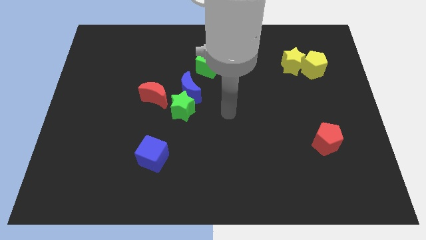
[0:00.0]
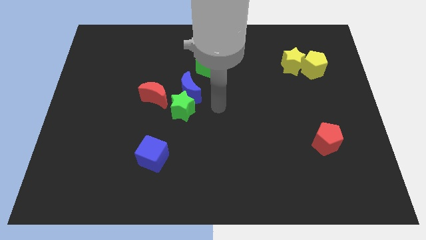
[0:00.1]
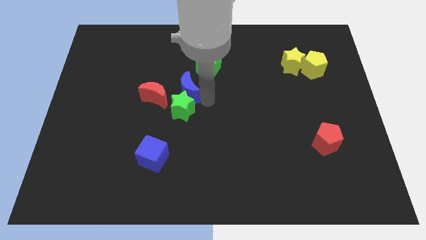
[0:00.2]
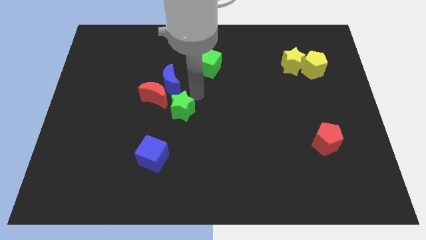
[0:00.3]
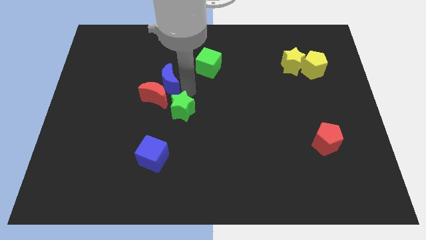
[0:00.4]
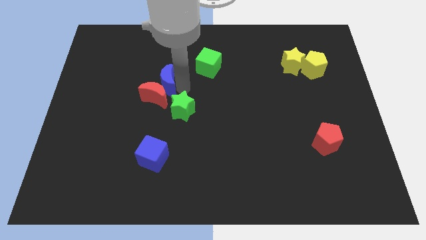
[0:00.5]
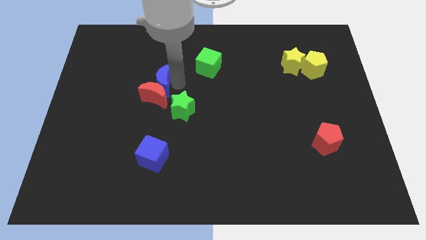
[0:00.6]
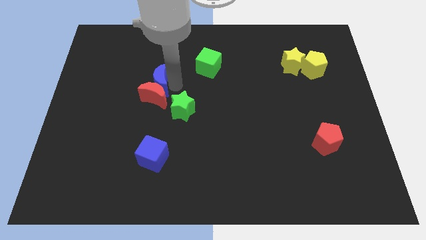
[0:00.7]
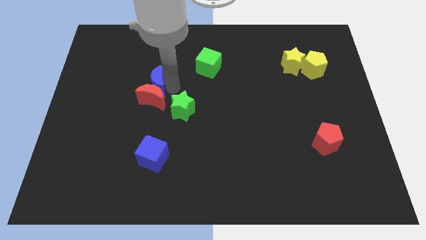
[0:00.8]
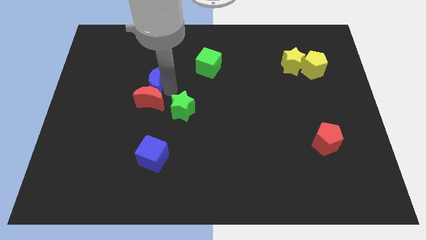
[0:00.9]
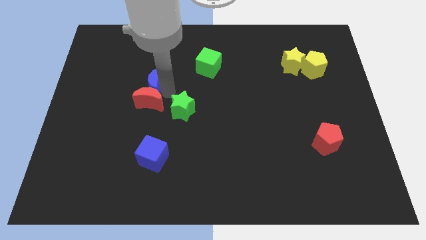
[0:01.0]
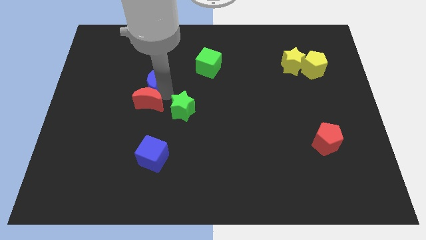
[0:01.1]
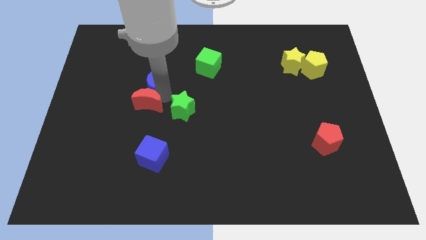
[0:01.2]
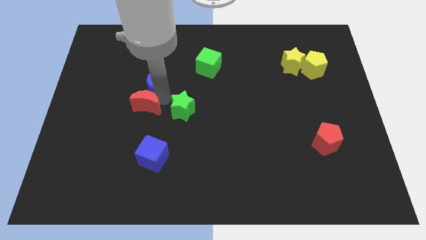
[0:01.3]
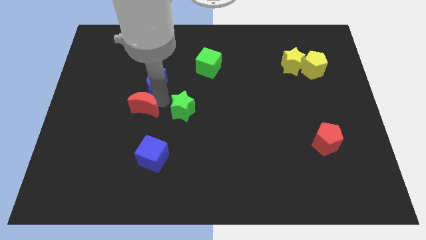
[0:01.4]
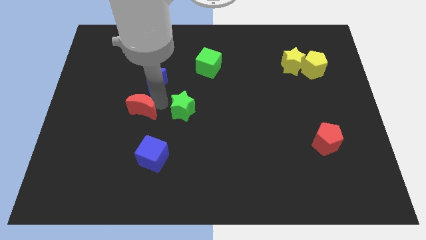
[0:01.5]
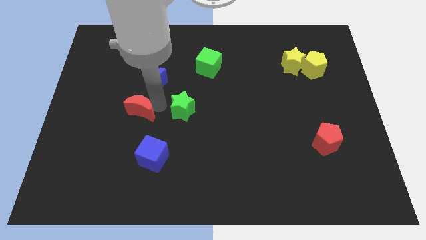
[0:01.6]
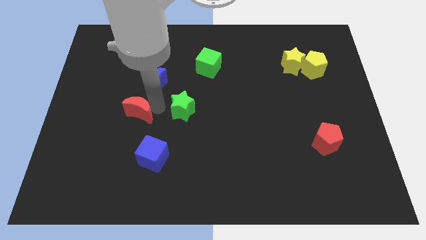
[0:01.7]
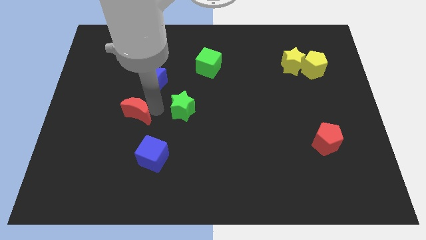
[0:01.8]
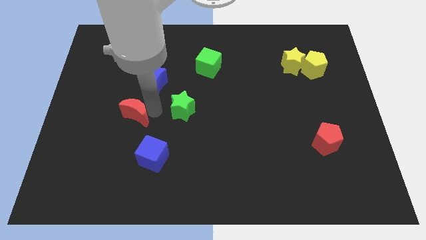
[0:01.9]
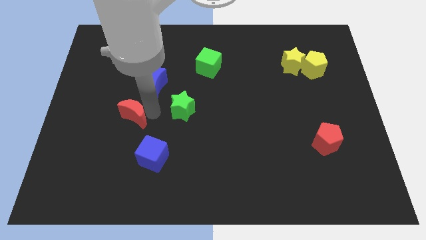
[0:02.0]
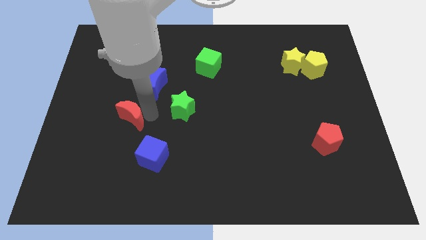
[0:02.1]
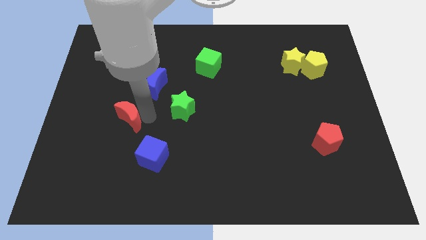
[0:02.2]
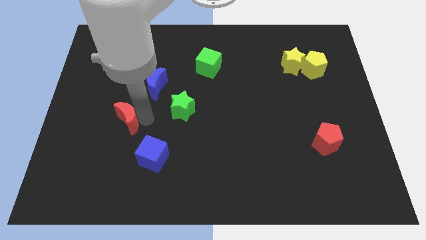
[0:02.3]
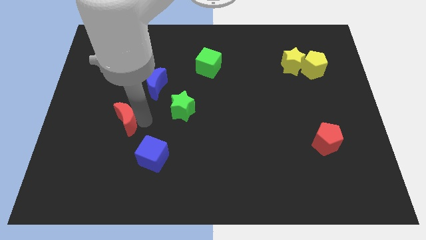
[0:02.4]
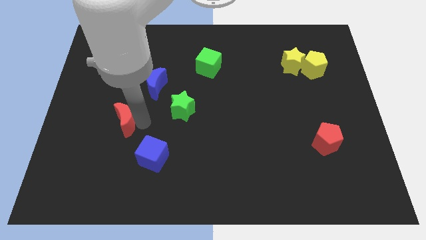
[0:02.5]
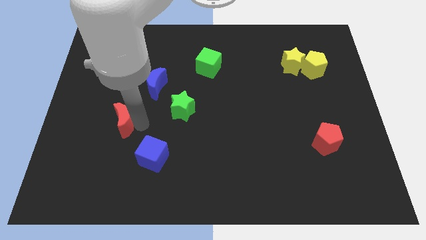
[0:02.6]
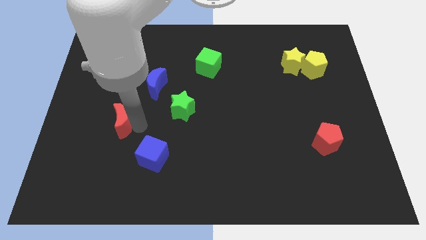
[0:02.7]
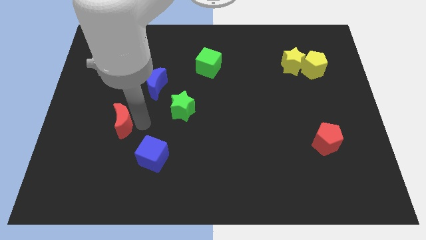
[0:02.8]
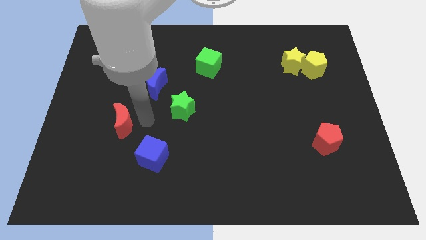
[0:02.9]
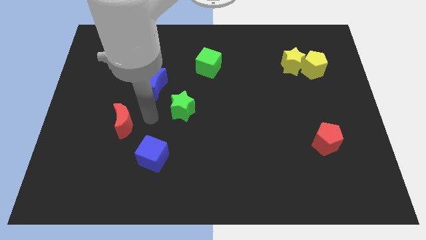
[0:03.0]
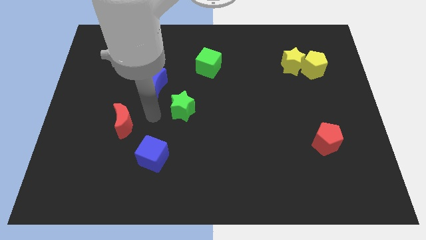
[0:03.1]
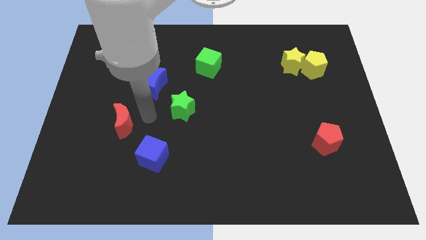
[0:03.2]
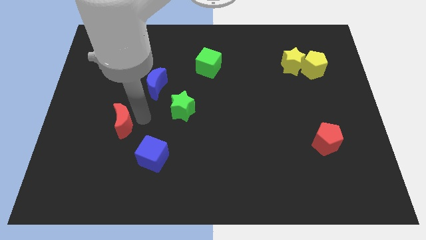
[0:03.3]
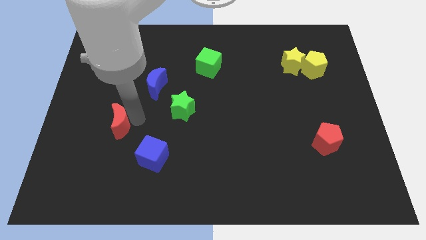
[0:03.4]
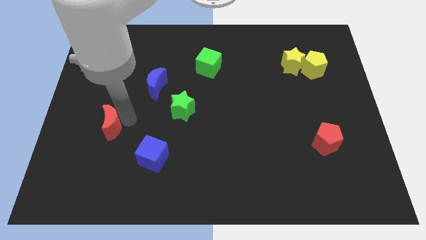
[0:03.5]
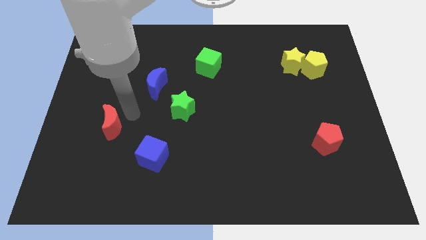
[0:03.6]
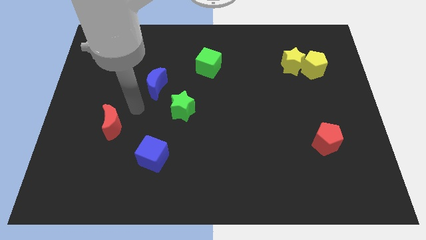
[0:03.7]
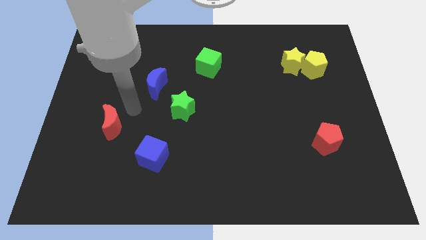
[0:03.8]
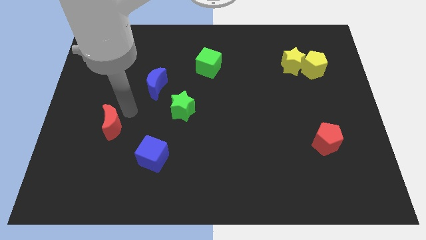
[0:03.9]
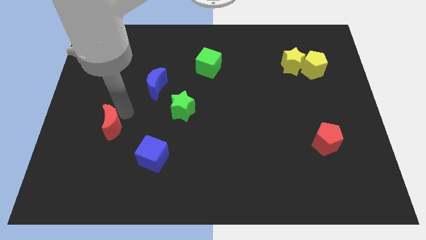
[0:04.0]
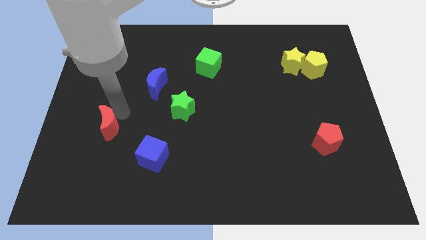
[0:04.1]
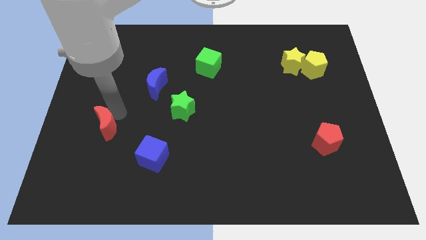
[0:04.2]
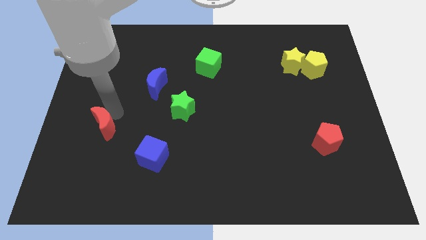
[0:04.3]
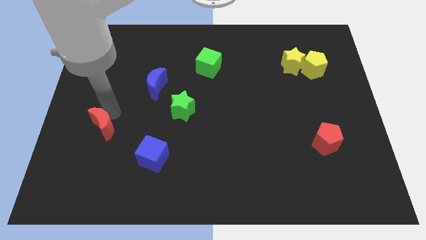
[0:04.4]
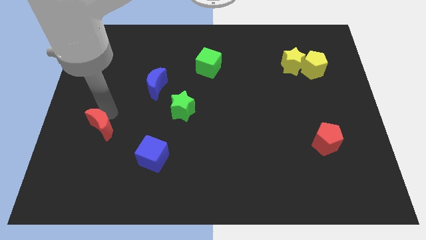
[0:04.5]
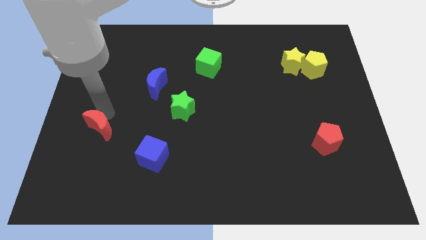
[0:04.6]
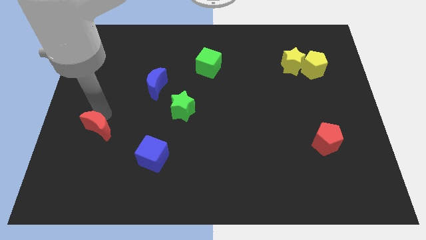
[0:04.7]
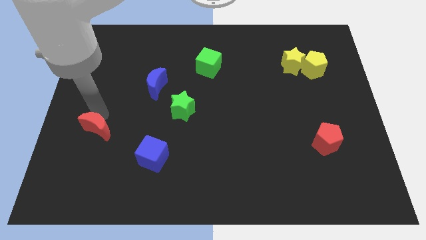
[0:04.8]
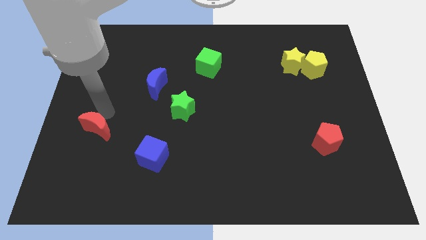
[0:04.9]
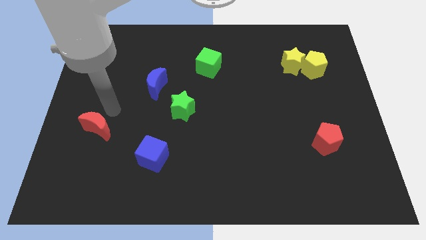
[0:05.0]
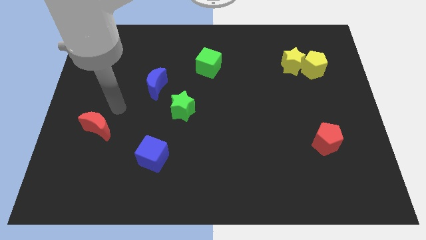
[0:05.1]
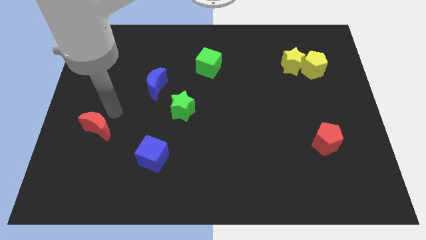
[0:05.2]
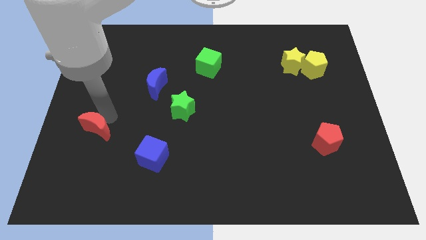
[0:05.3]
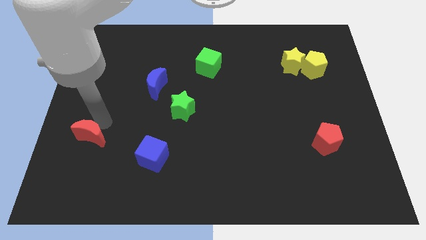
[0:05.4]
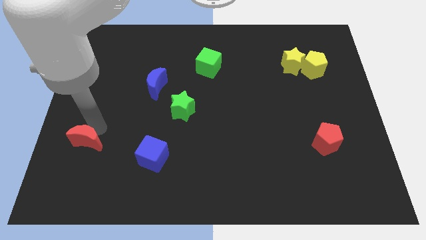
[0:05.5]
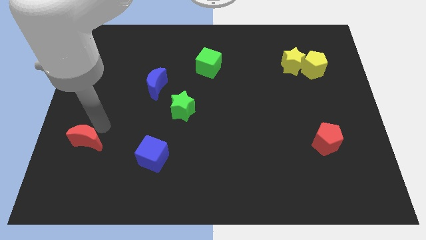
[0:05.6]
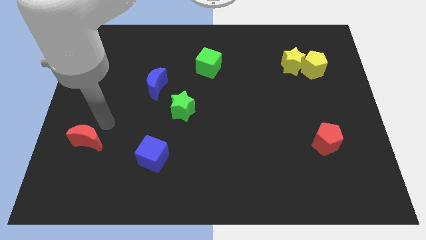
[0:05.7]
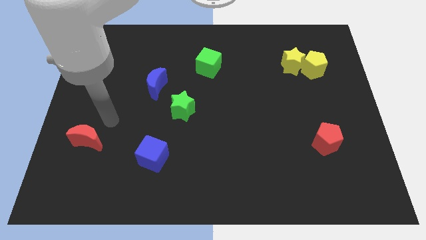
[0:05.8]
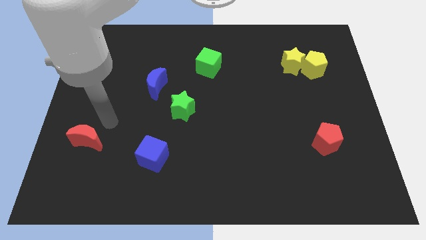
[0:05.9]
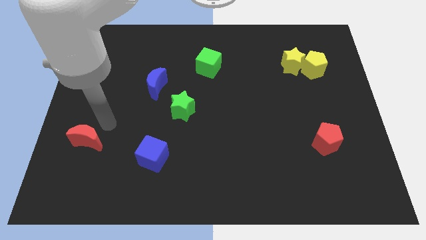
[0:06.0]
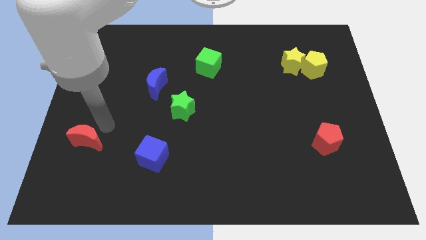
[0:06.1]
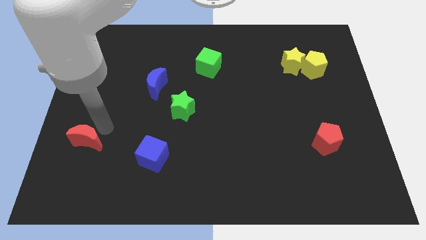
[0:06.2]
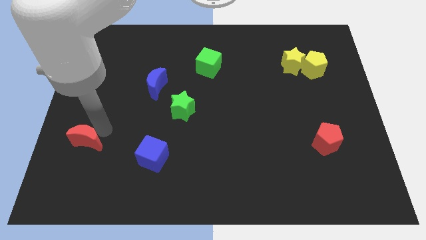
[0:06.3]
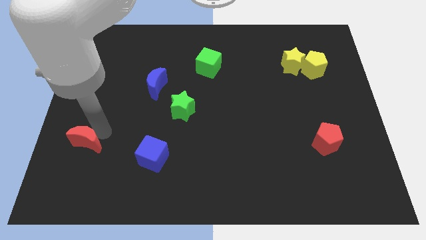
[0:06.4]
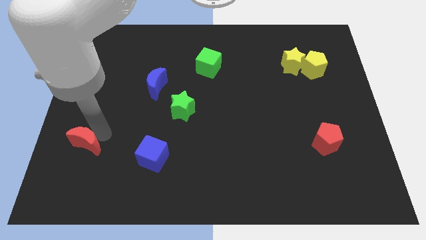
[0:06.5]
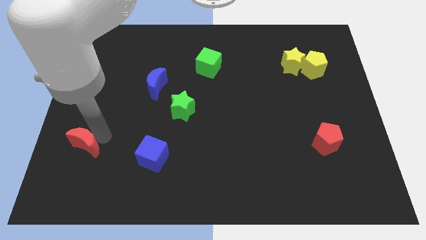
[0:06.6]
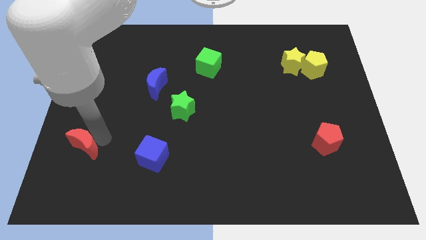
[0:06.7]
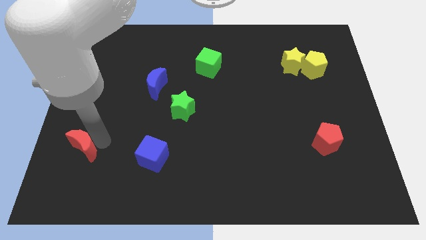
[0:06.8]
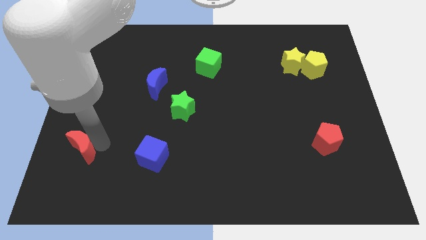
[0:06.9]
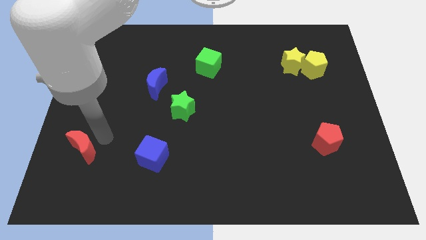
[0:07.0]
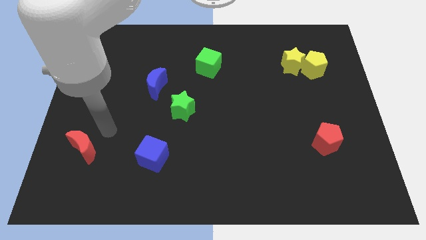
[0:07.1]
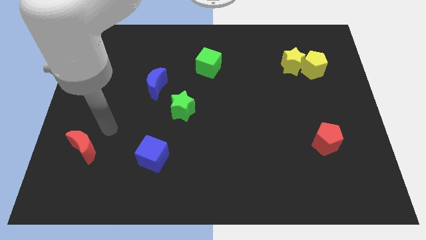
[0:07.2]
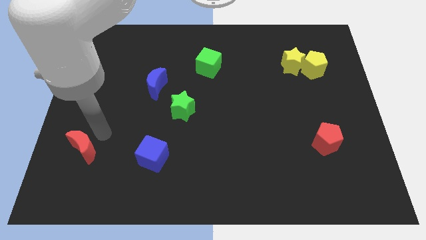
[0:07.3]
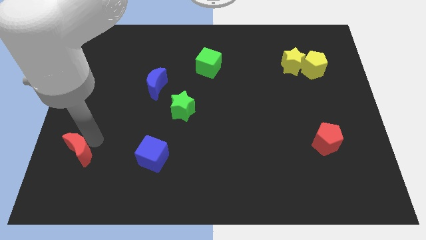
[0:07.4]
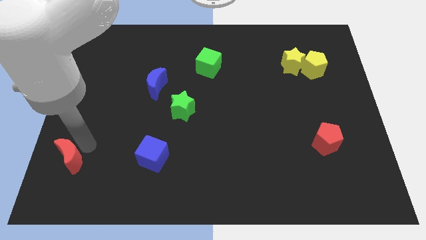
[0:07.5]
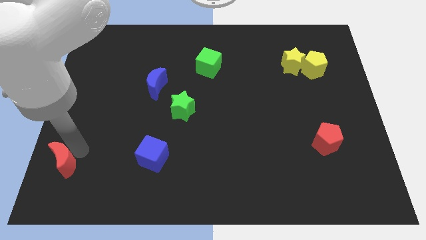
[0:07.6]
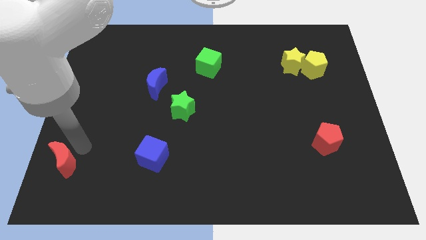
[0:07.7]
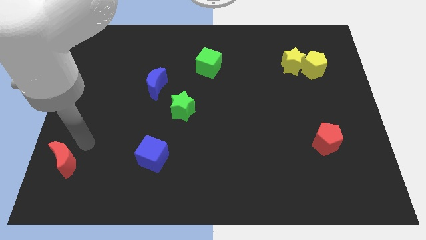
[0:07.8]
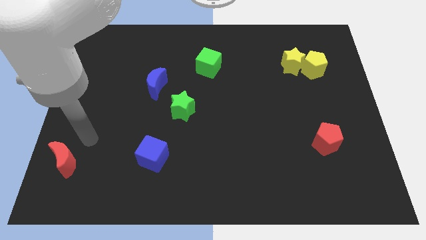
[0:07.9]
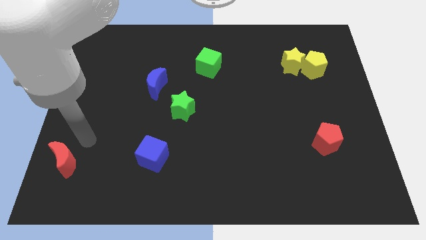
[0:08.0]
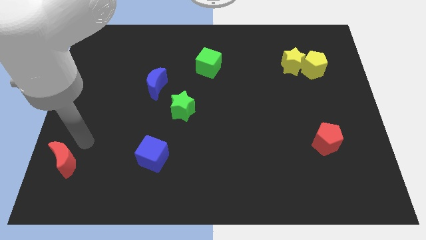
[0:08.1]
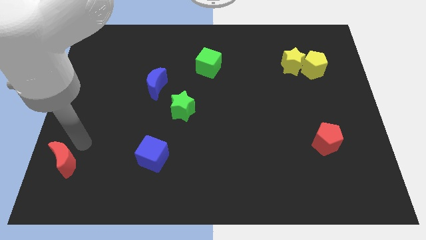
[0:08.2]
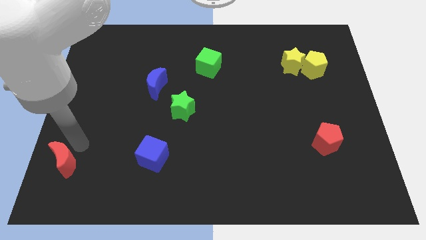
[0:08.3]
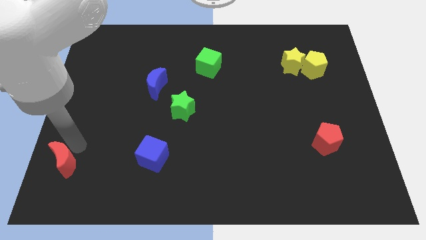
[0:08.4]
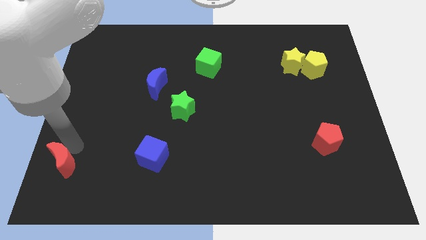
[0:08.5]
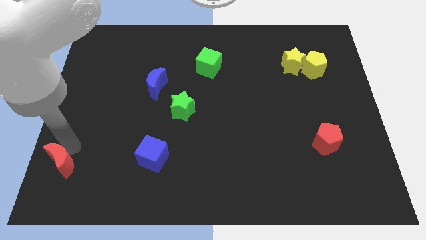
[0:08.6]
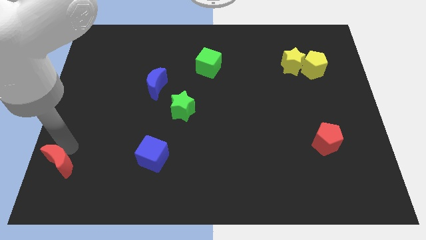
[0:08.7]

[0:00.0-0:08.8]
slide the red moon to the bottom left
